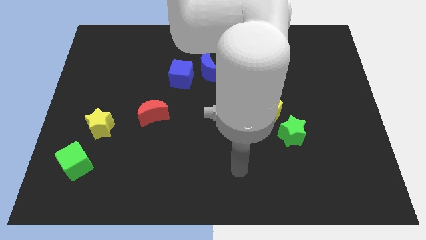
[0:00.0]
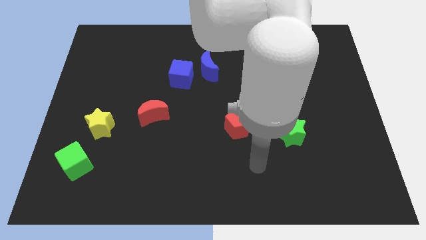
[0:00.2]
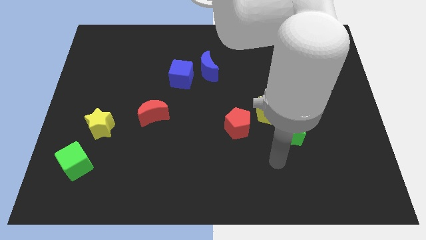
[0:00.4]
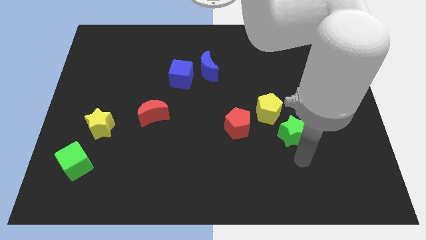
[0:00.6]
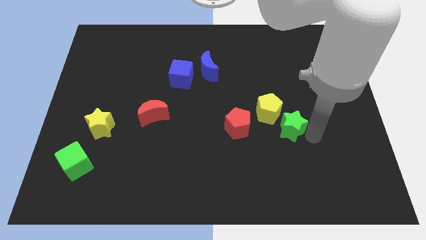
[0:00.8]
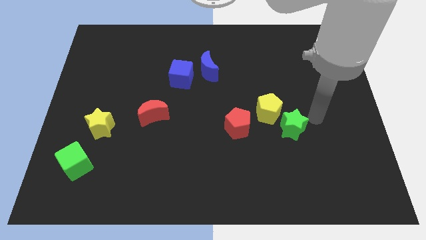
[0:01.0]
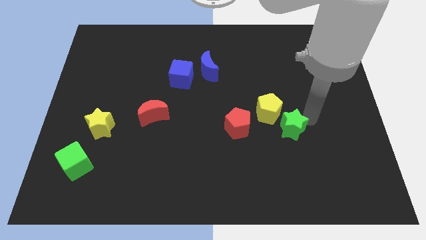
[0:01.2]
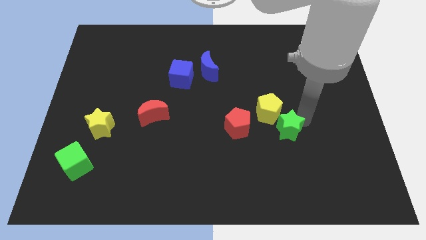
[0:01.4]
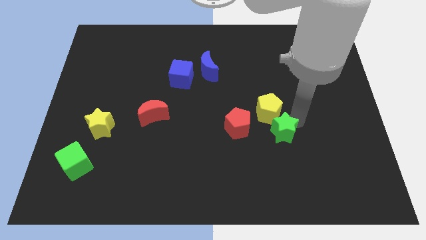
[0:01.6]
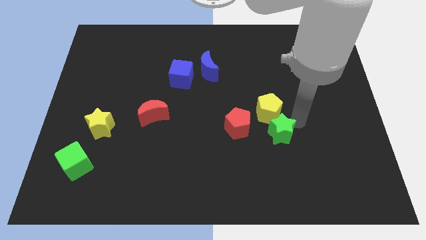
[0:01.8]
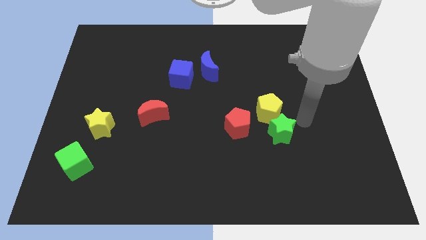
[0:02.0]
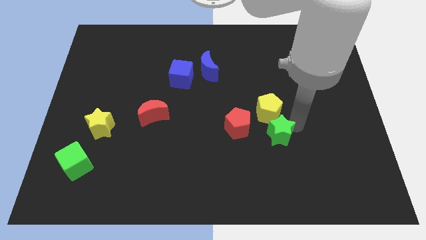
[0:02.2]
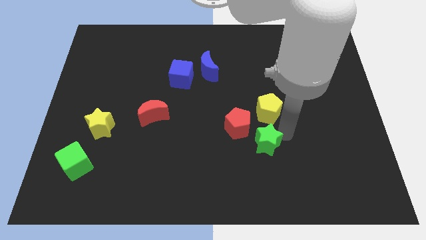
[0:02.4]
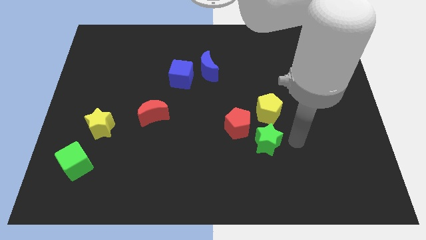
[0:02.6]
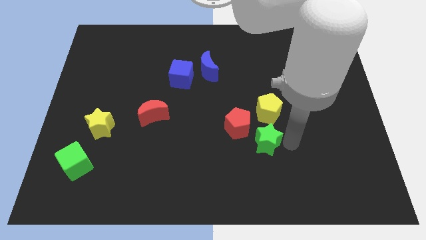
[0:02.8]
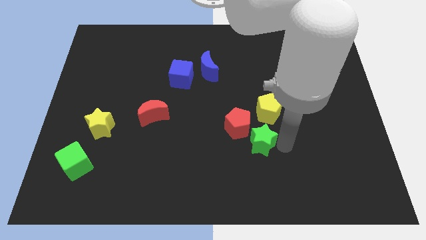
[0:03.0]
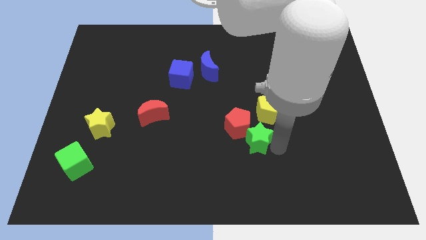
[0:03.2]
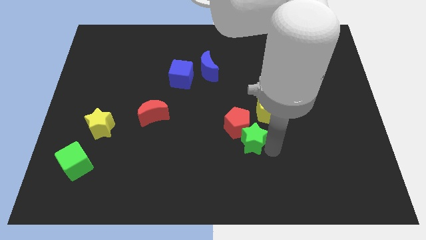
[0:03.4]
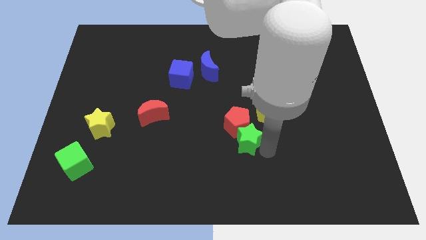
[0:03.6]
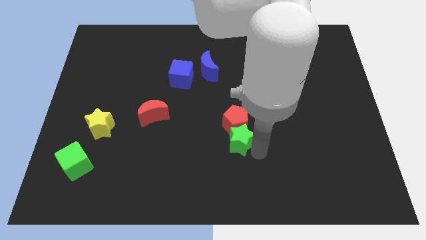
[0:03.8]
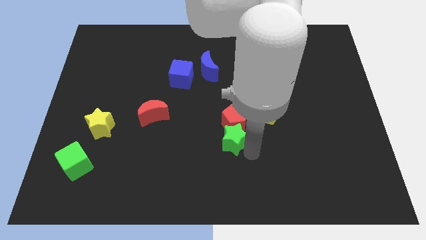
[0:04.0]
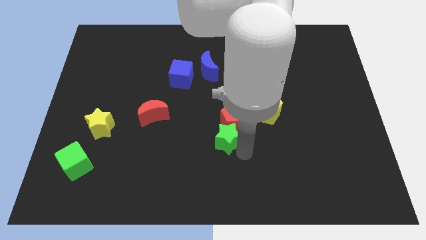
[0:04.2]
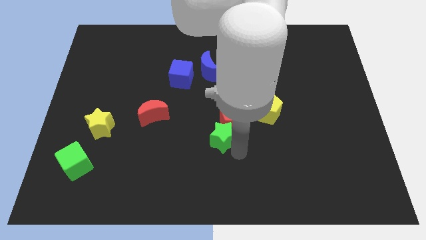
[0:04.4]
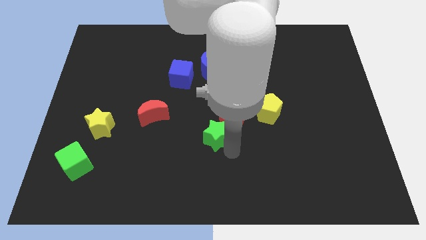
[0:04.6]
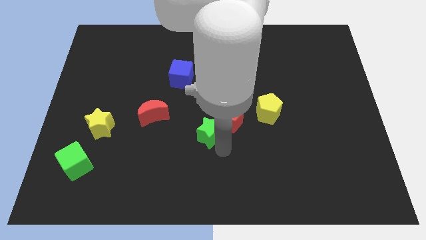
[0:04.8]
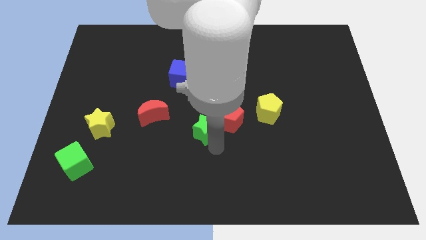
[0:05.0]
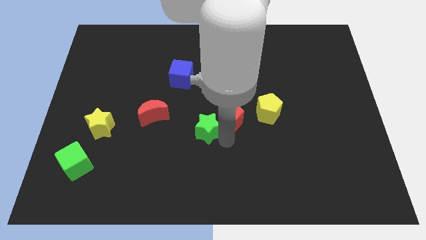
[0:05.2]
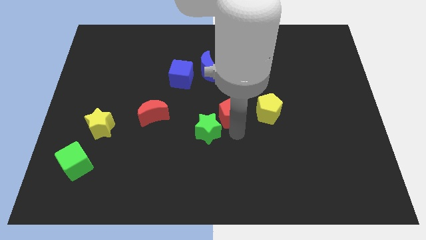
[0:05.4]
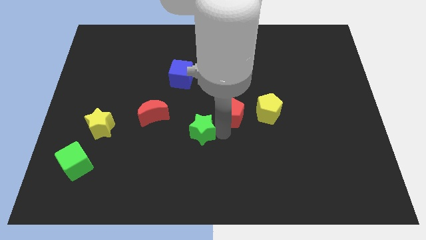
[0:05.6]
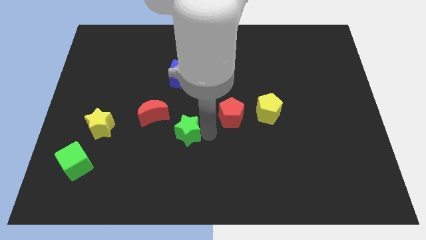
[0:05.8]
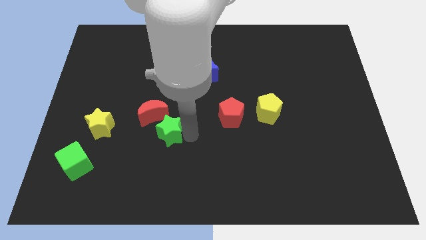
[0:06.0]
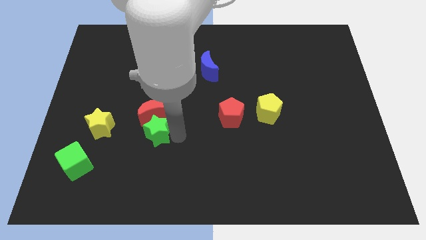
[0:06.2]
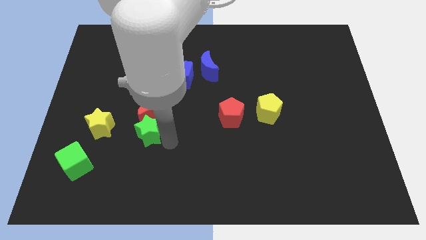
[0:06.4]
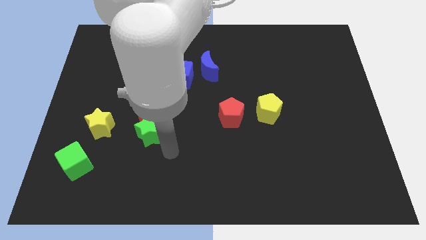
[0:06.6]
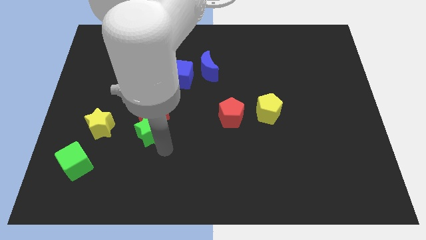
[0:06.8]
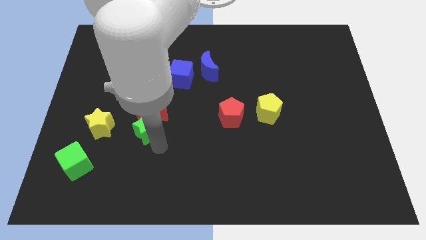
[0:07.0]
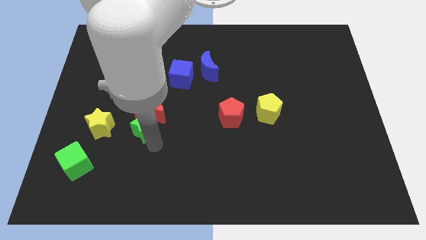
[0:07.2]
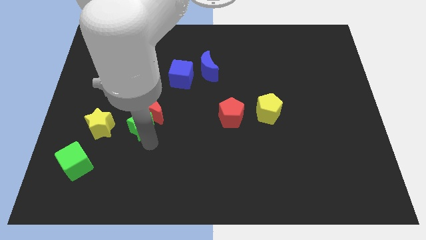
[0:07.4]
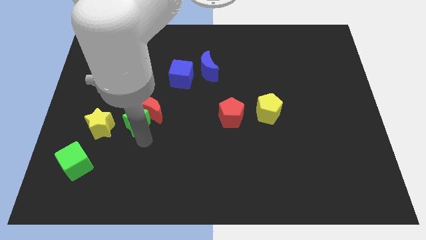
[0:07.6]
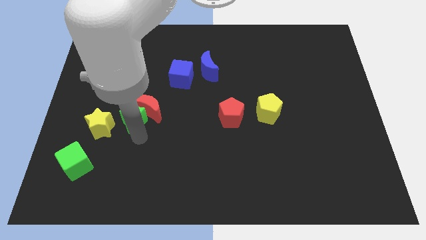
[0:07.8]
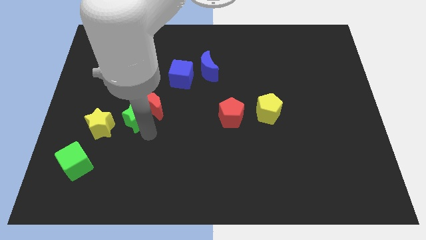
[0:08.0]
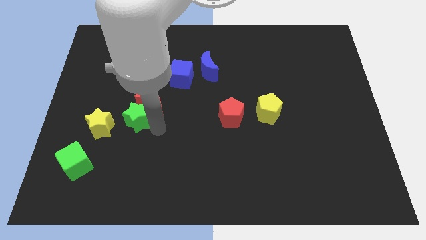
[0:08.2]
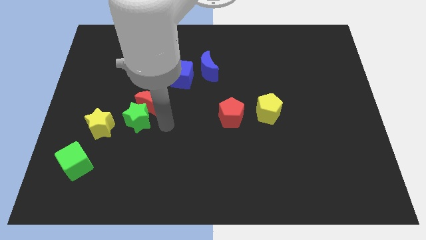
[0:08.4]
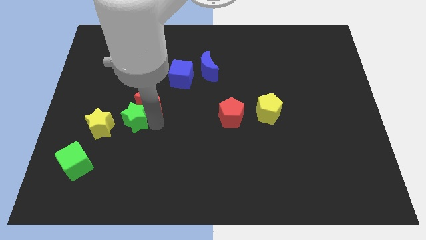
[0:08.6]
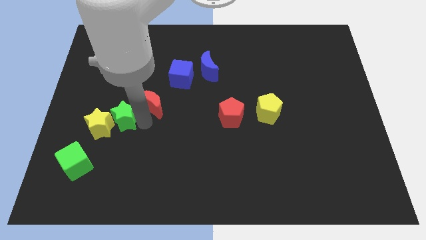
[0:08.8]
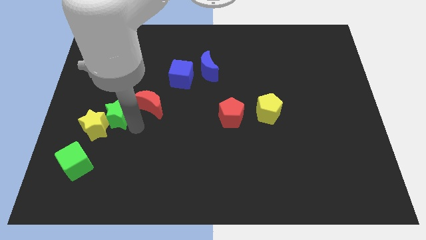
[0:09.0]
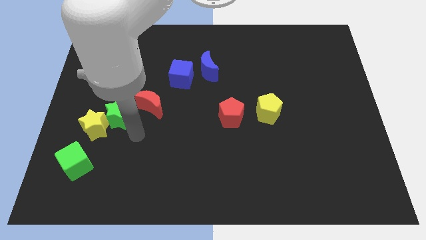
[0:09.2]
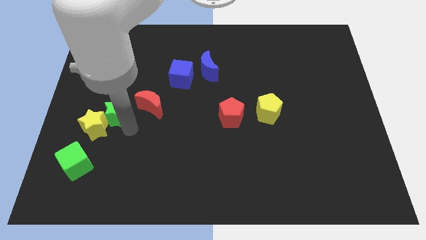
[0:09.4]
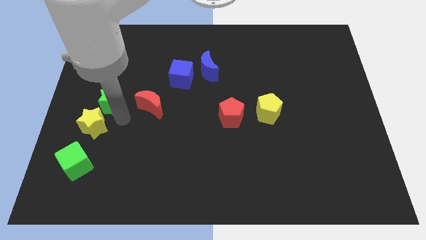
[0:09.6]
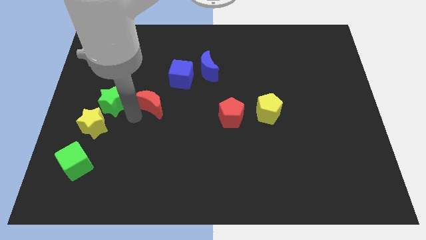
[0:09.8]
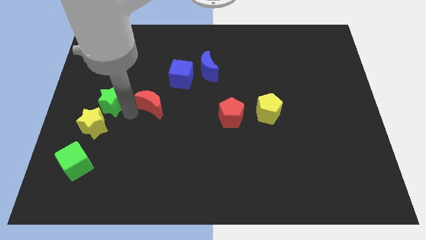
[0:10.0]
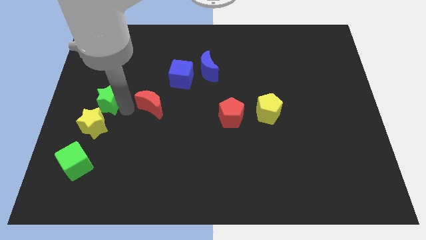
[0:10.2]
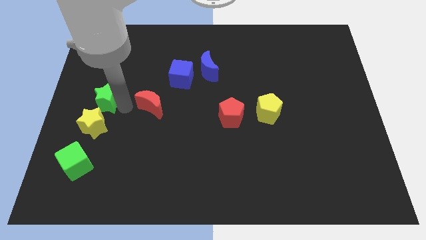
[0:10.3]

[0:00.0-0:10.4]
slide the green star to the center left

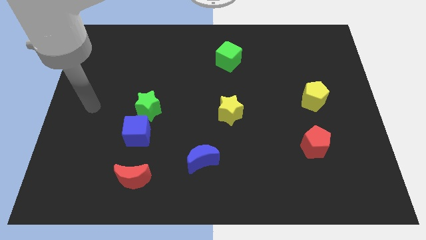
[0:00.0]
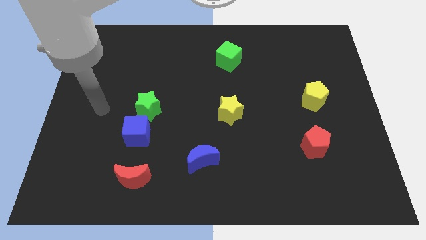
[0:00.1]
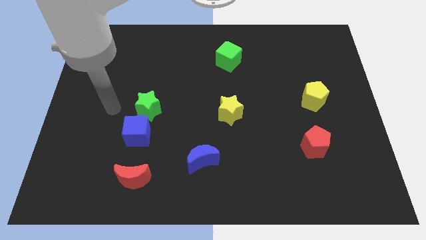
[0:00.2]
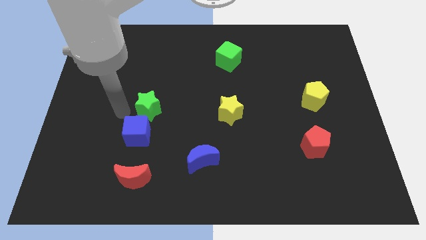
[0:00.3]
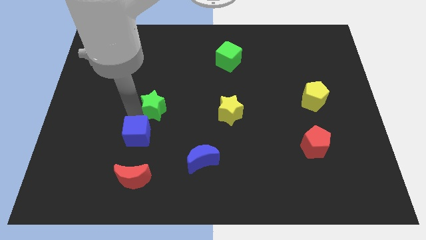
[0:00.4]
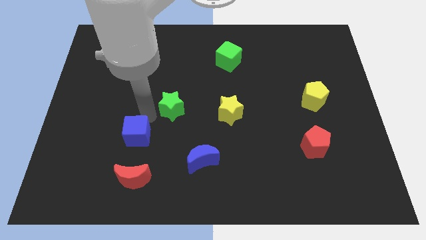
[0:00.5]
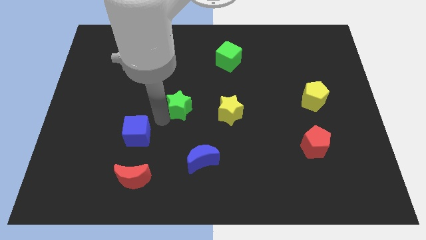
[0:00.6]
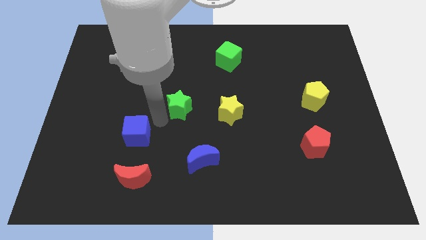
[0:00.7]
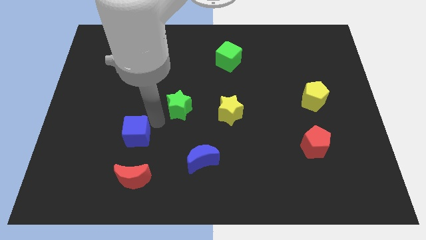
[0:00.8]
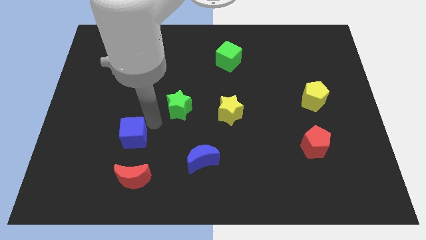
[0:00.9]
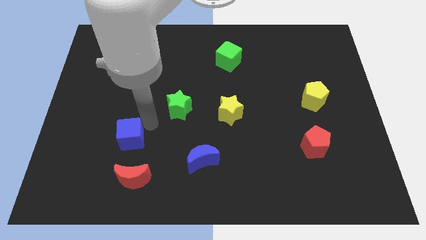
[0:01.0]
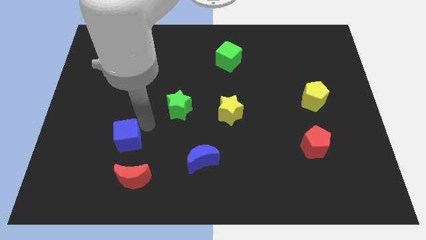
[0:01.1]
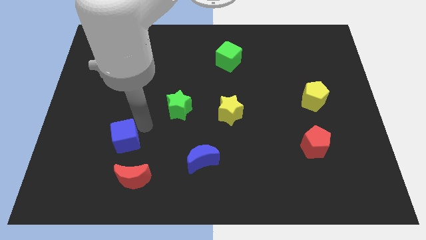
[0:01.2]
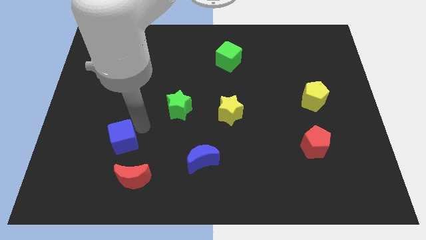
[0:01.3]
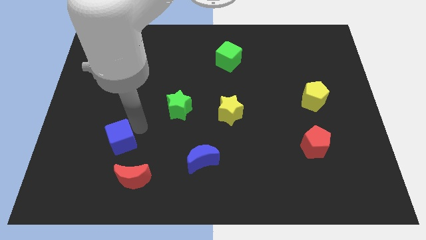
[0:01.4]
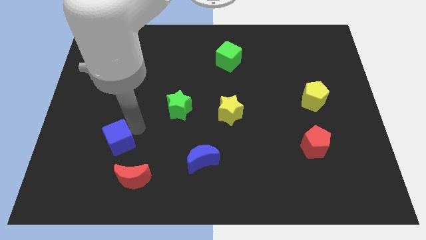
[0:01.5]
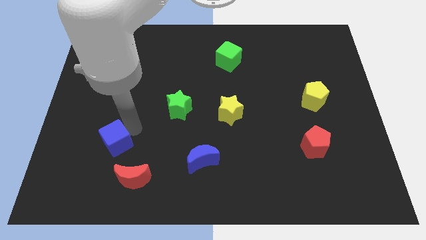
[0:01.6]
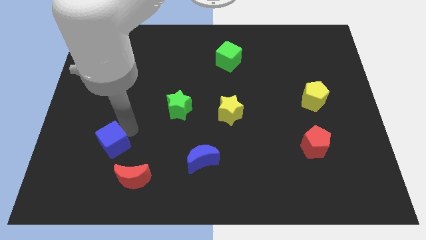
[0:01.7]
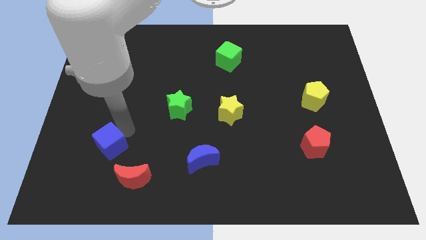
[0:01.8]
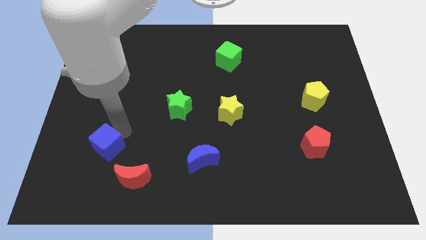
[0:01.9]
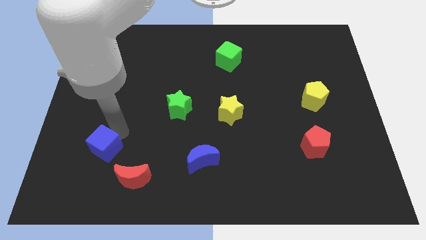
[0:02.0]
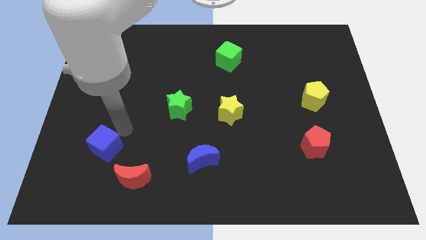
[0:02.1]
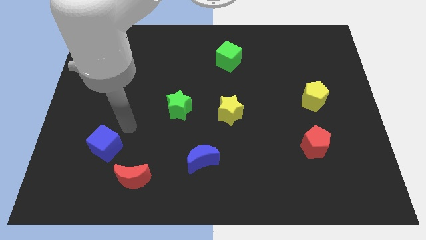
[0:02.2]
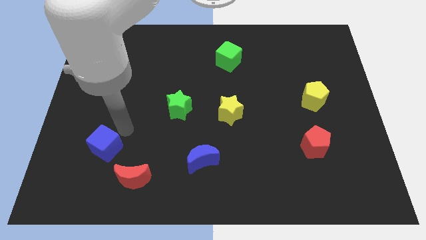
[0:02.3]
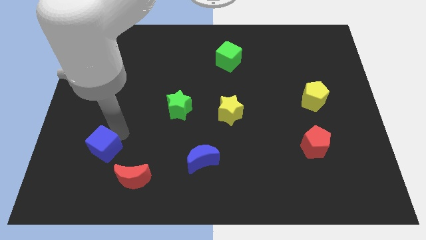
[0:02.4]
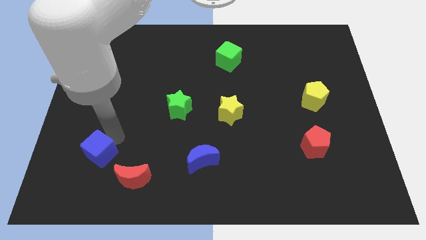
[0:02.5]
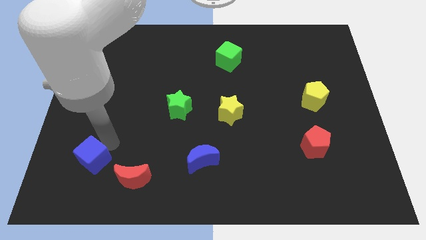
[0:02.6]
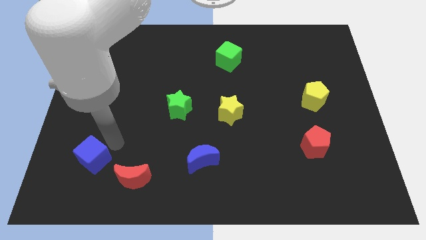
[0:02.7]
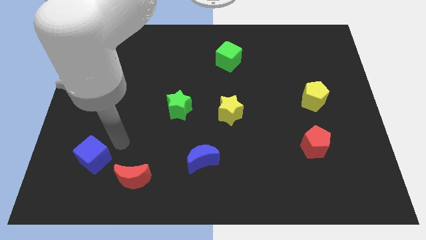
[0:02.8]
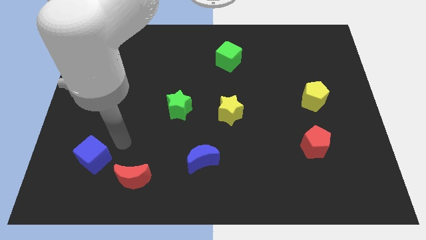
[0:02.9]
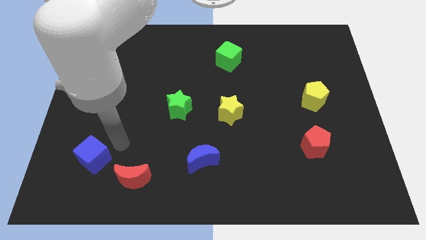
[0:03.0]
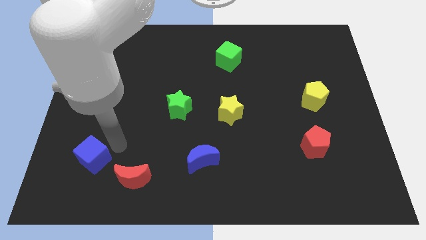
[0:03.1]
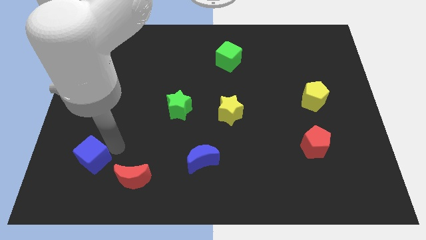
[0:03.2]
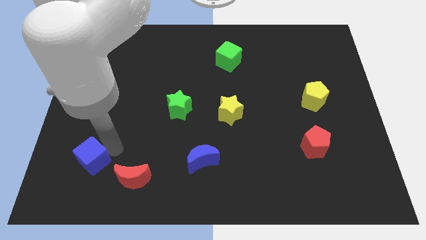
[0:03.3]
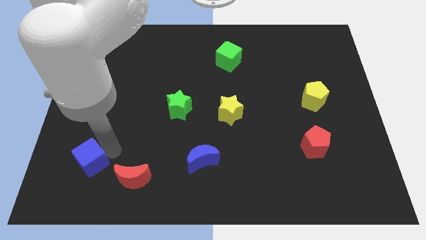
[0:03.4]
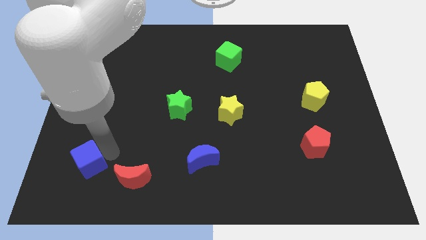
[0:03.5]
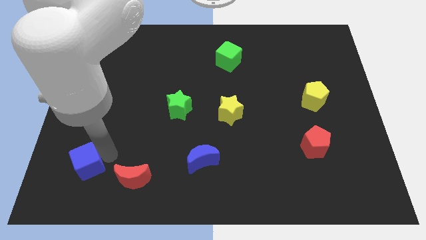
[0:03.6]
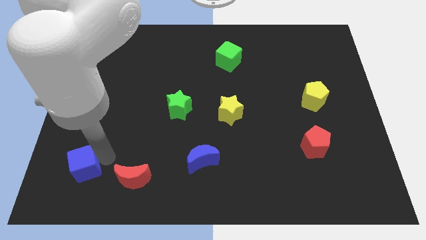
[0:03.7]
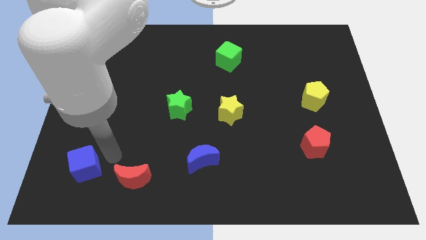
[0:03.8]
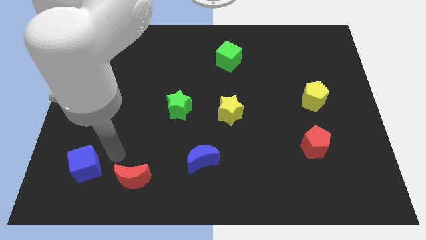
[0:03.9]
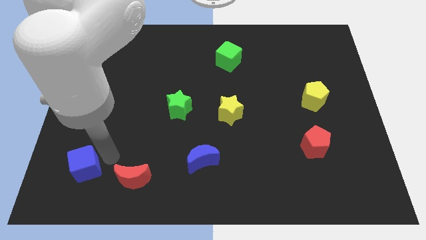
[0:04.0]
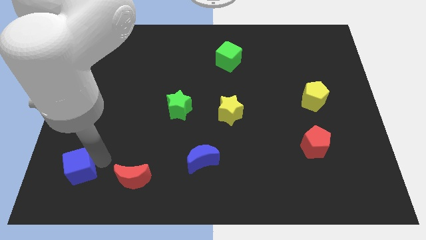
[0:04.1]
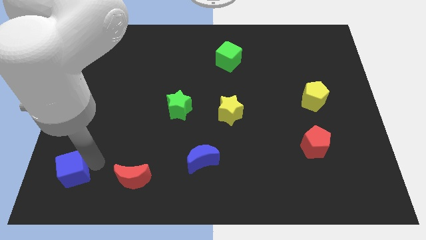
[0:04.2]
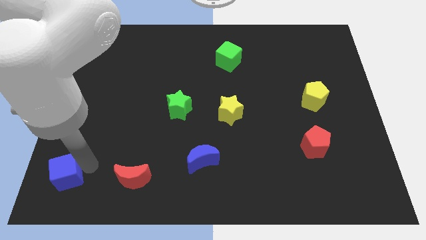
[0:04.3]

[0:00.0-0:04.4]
put the blue cube to the bottom left
